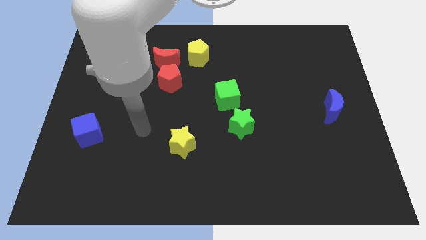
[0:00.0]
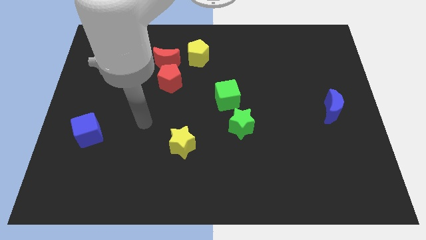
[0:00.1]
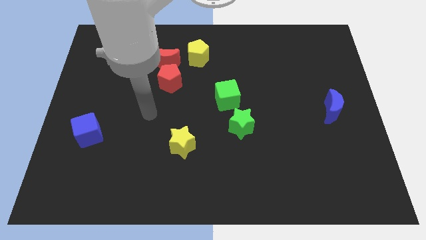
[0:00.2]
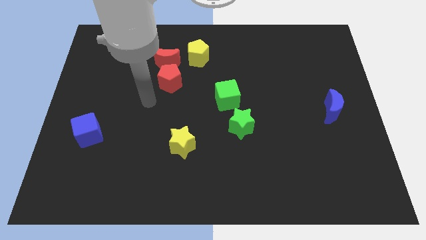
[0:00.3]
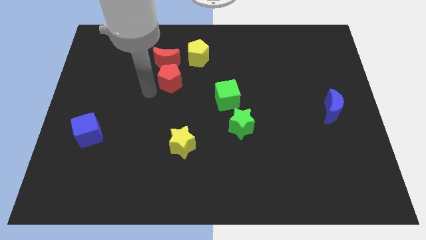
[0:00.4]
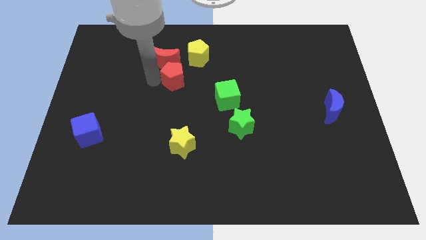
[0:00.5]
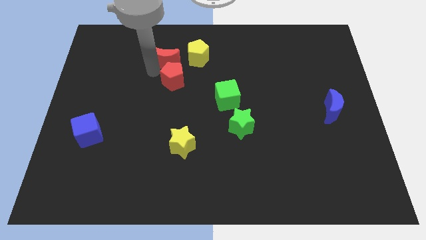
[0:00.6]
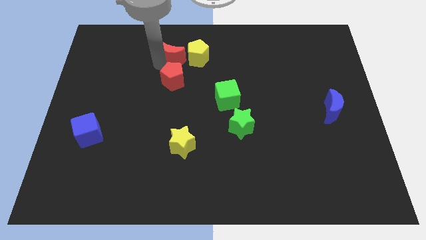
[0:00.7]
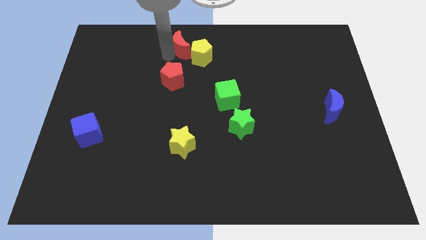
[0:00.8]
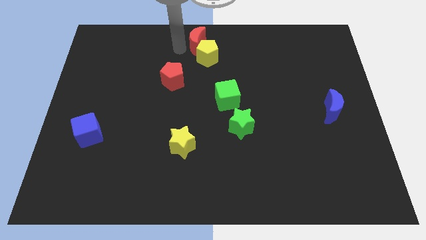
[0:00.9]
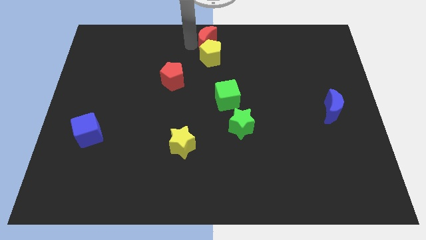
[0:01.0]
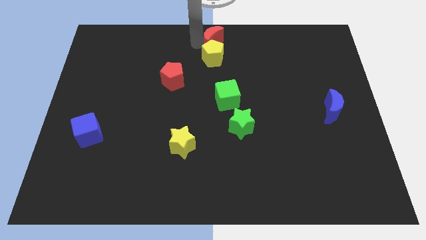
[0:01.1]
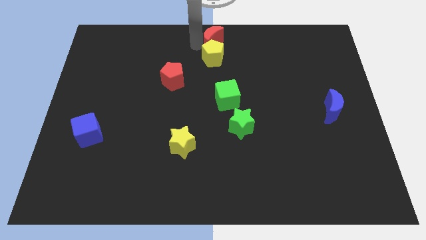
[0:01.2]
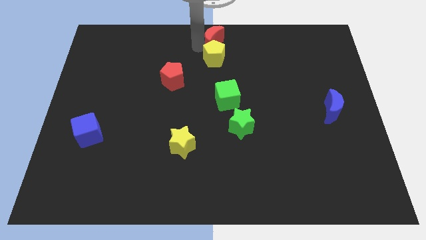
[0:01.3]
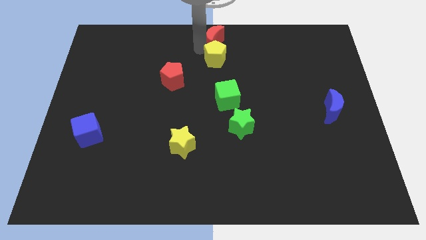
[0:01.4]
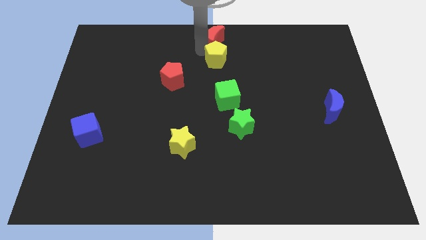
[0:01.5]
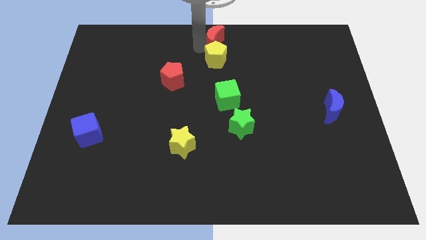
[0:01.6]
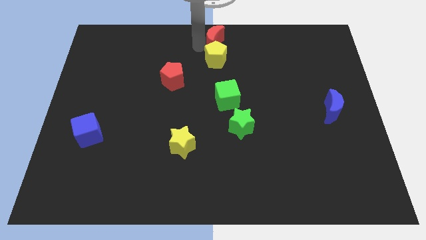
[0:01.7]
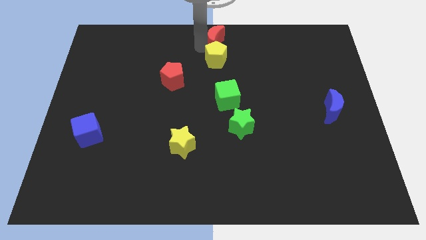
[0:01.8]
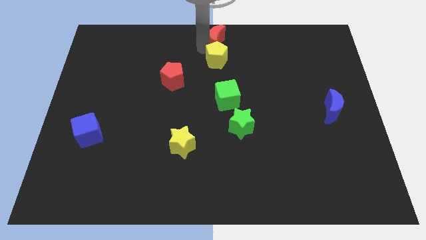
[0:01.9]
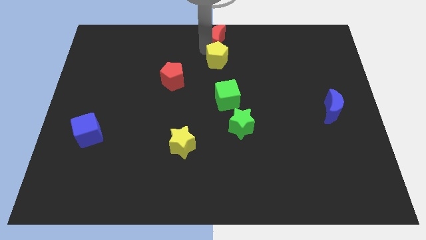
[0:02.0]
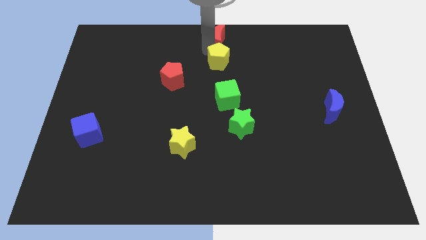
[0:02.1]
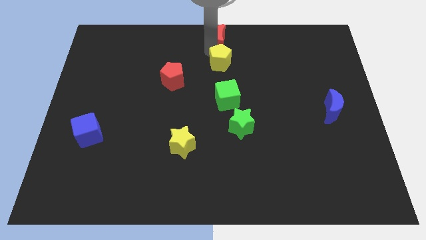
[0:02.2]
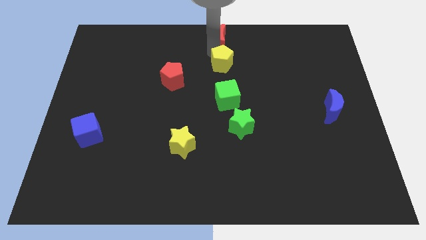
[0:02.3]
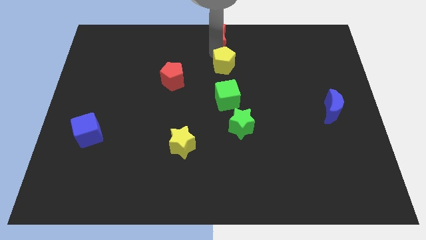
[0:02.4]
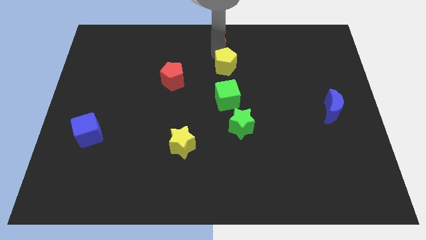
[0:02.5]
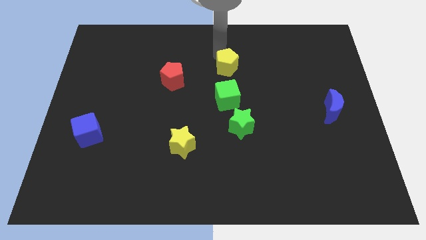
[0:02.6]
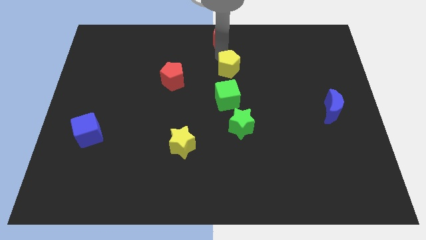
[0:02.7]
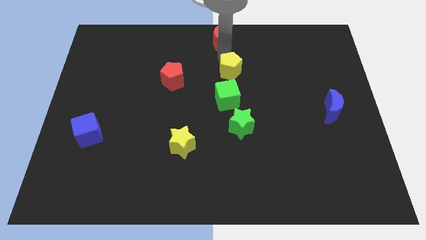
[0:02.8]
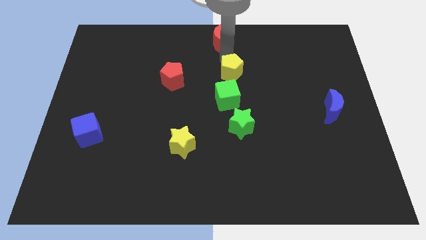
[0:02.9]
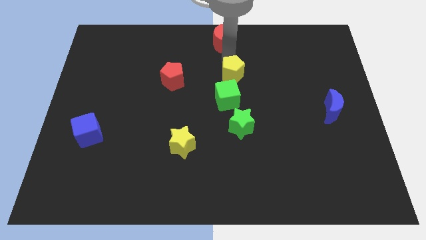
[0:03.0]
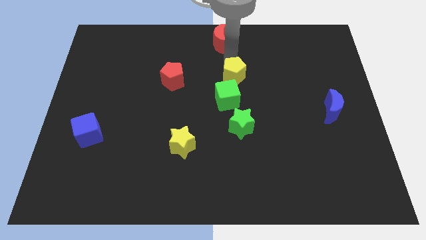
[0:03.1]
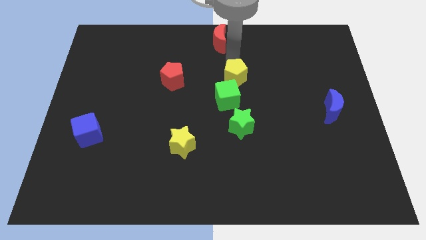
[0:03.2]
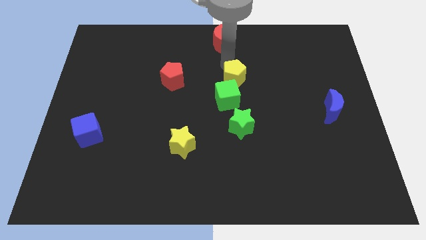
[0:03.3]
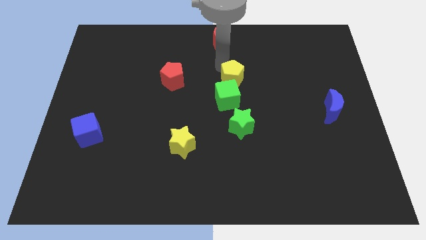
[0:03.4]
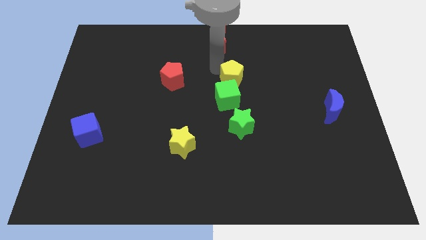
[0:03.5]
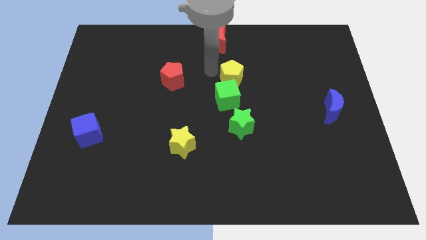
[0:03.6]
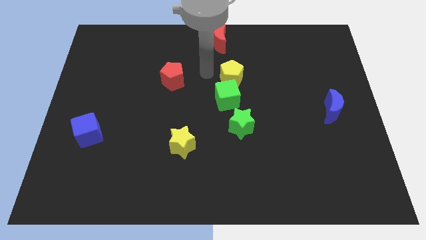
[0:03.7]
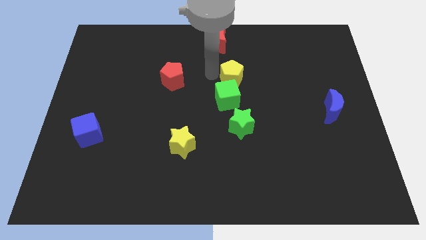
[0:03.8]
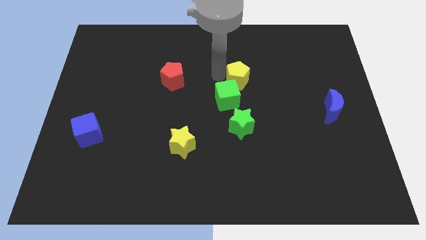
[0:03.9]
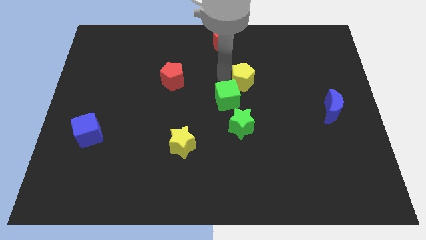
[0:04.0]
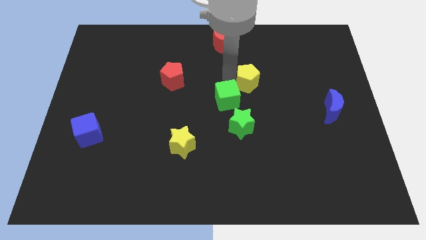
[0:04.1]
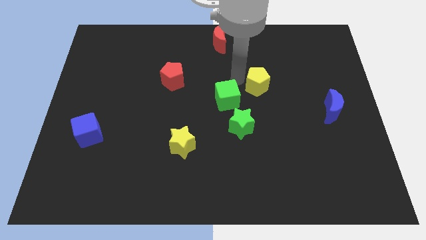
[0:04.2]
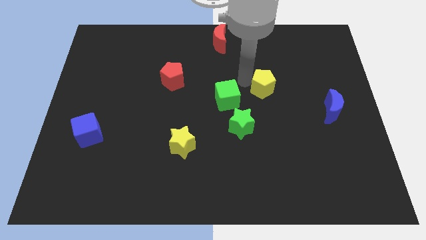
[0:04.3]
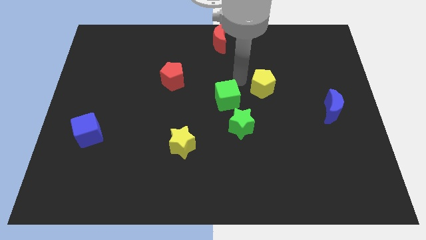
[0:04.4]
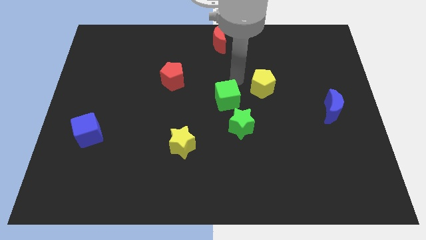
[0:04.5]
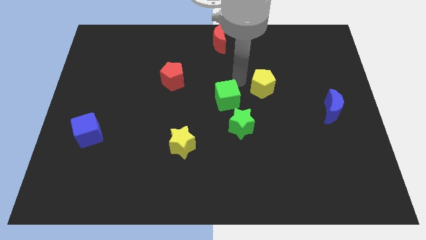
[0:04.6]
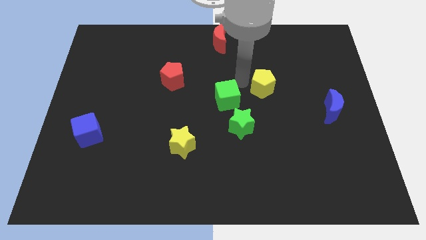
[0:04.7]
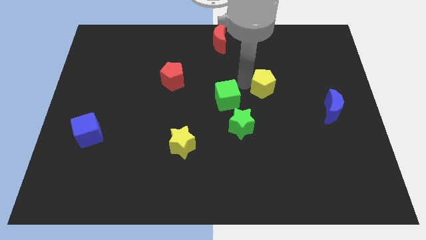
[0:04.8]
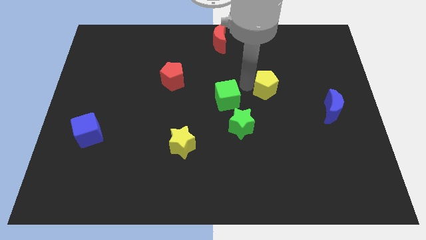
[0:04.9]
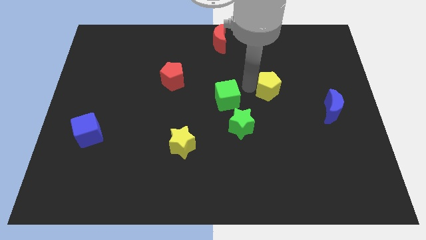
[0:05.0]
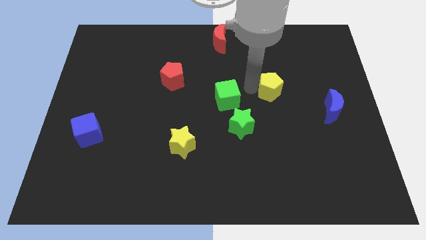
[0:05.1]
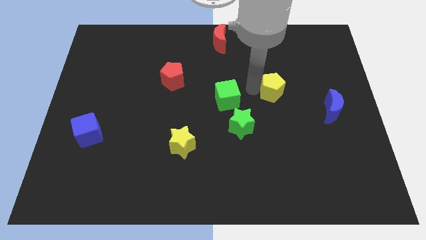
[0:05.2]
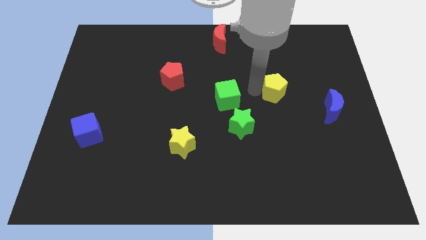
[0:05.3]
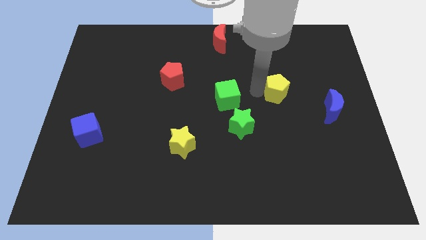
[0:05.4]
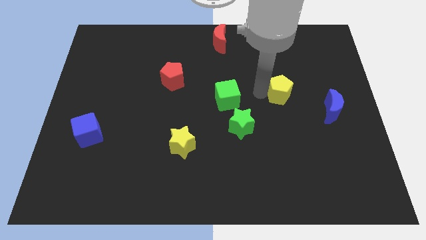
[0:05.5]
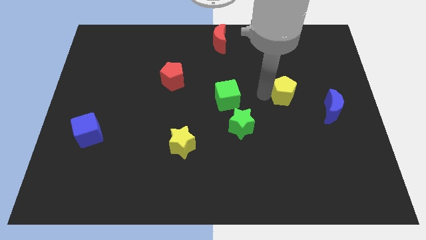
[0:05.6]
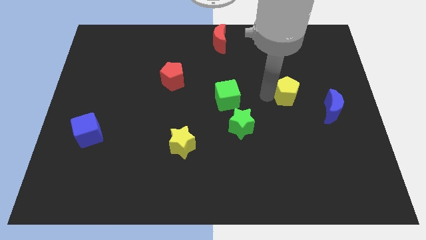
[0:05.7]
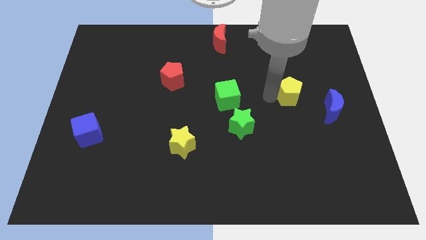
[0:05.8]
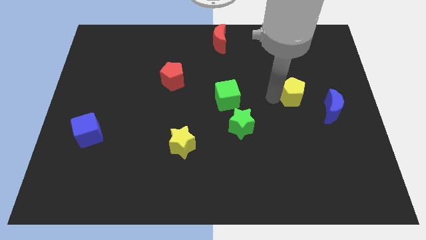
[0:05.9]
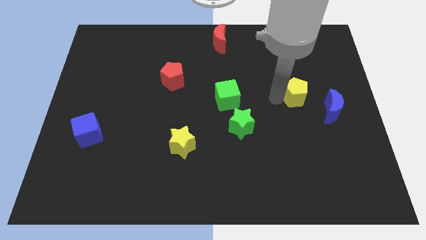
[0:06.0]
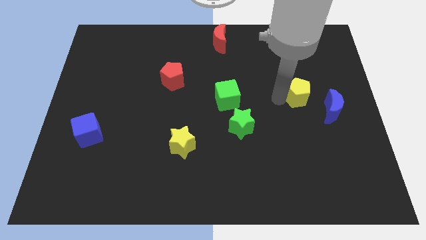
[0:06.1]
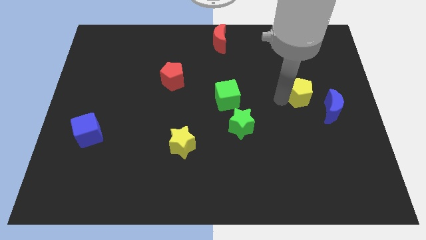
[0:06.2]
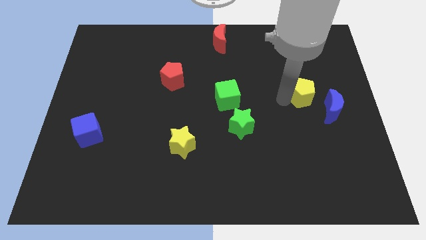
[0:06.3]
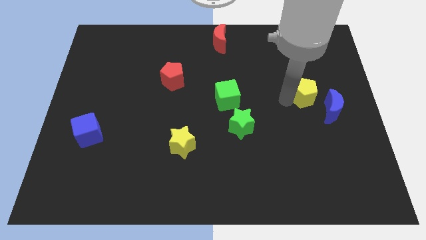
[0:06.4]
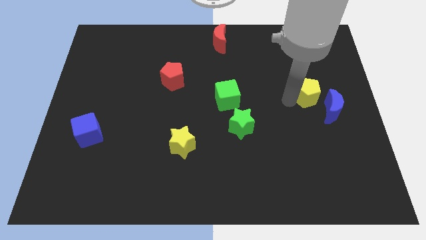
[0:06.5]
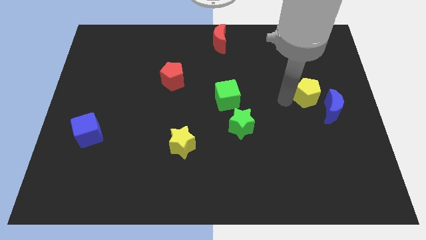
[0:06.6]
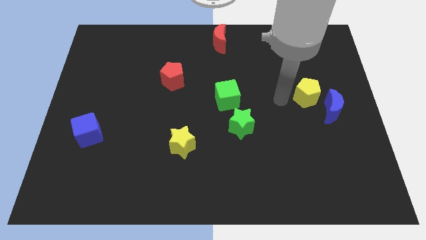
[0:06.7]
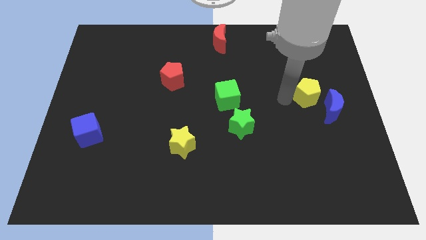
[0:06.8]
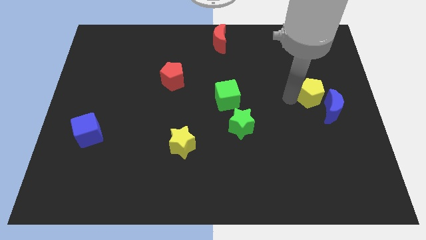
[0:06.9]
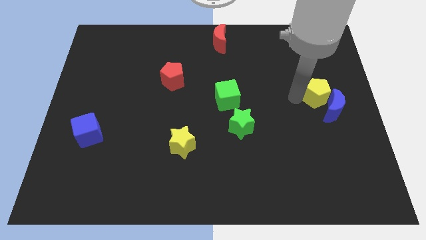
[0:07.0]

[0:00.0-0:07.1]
slide the yellow pentagon to the right side
